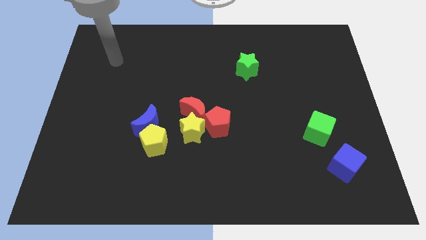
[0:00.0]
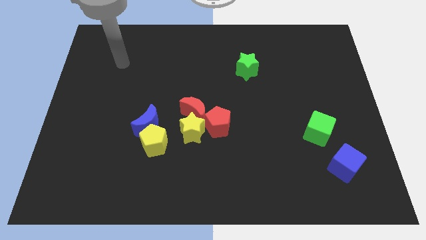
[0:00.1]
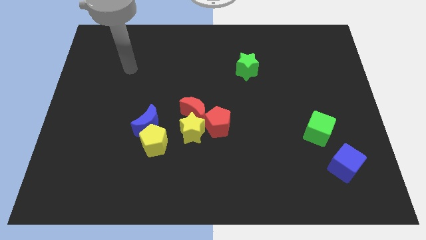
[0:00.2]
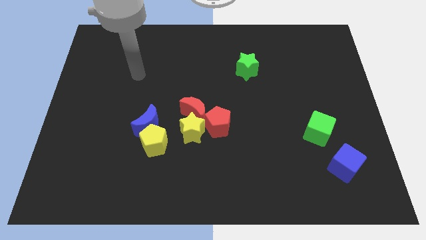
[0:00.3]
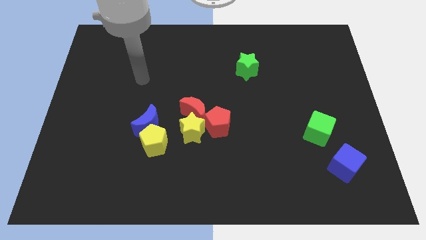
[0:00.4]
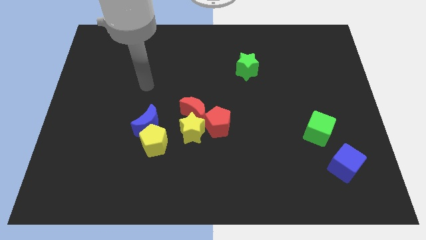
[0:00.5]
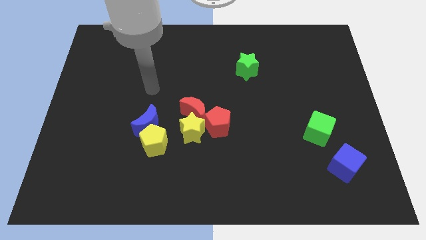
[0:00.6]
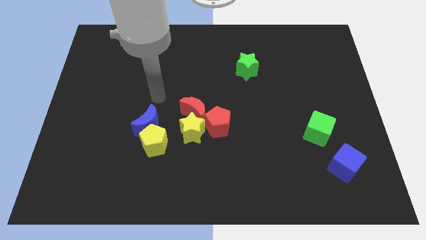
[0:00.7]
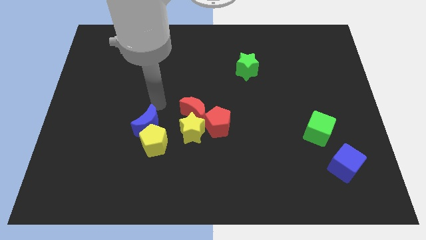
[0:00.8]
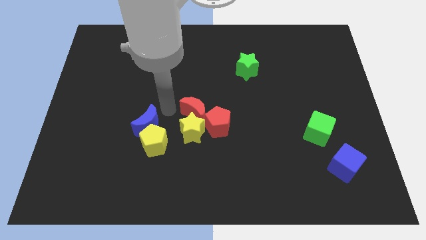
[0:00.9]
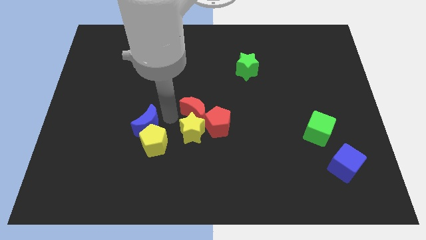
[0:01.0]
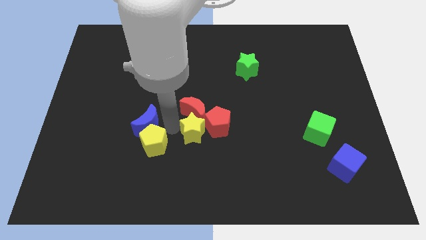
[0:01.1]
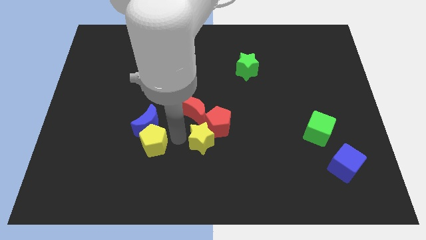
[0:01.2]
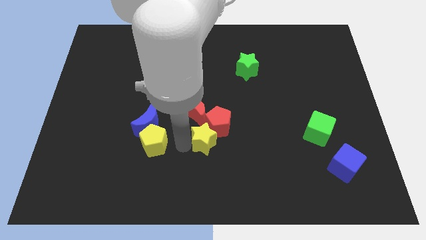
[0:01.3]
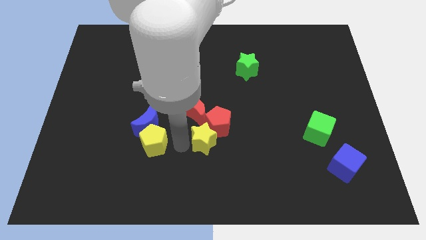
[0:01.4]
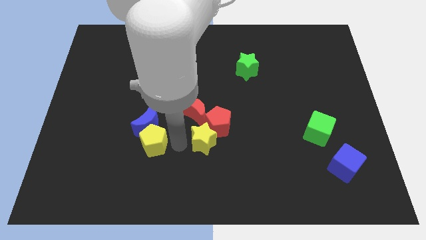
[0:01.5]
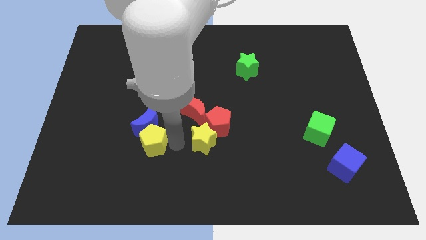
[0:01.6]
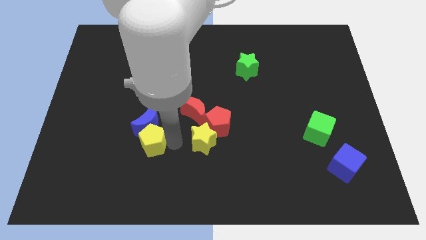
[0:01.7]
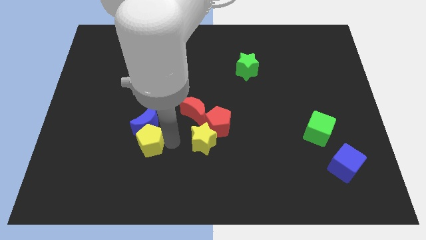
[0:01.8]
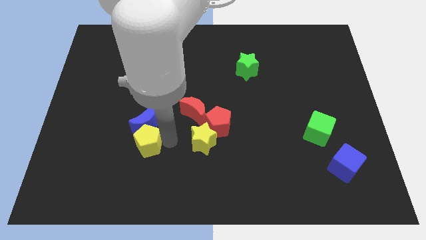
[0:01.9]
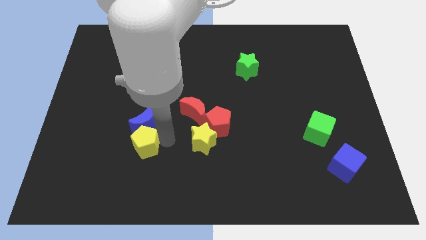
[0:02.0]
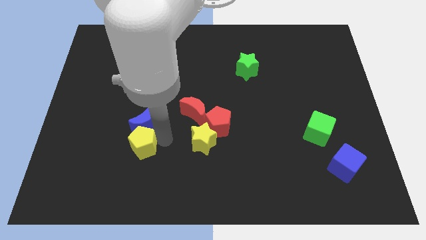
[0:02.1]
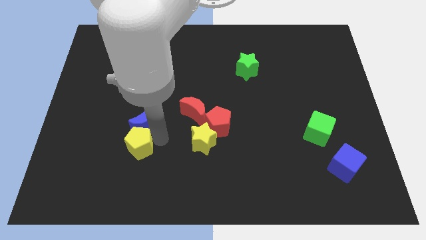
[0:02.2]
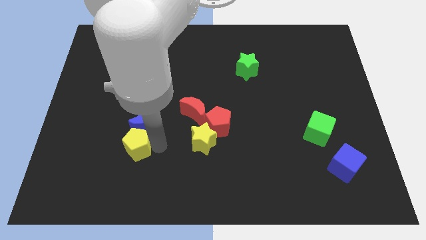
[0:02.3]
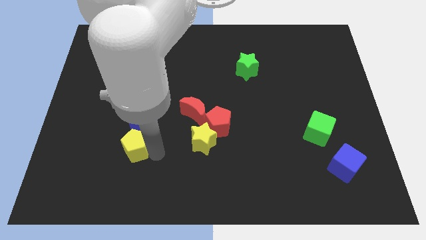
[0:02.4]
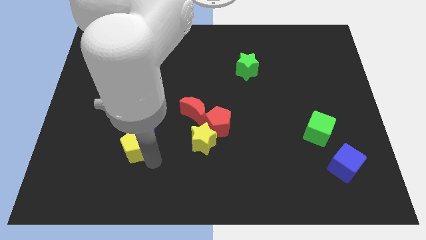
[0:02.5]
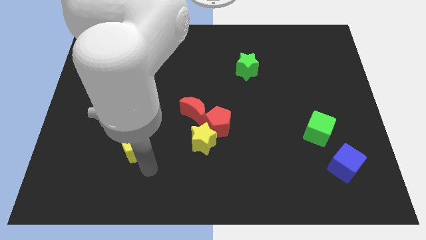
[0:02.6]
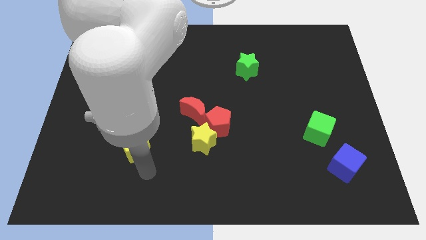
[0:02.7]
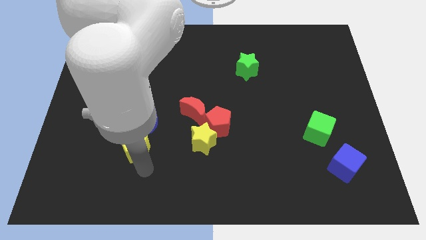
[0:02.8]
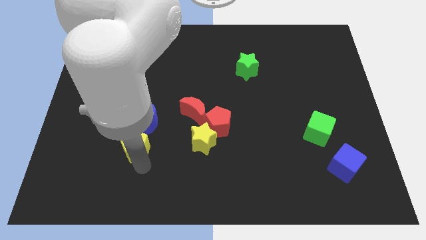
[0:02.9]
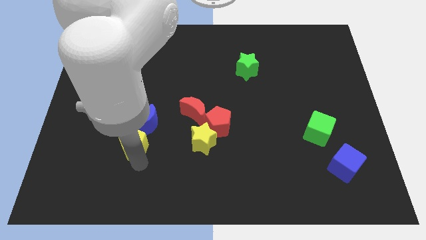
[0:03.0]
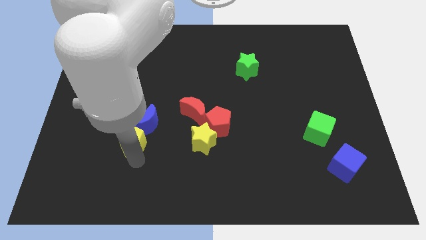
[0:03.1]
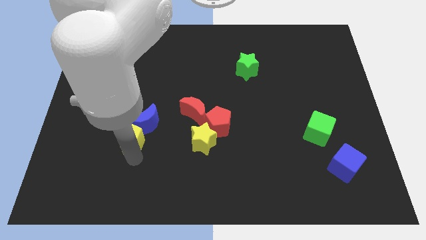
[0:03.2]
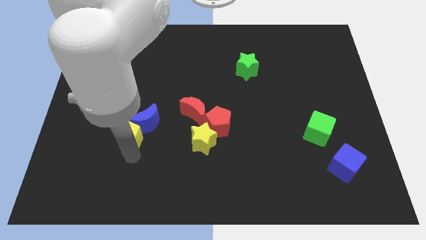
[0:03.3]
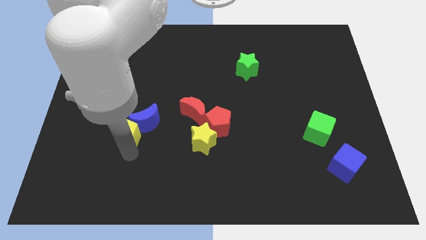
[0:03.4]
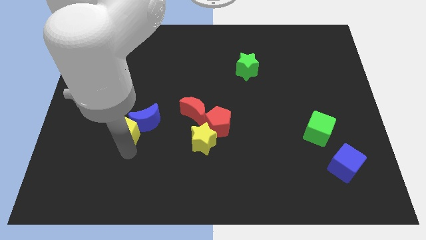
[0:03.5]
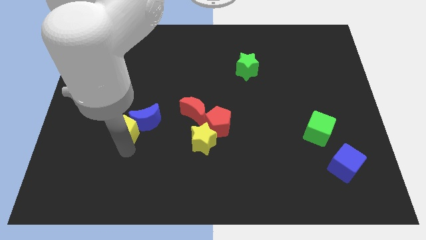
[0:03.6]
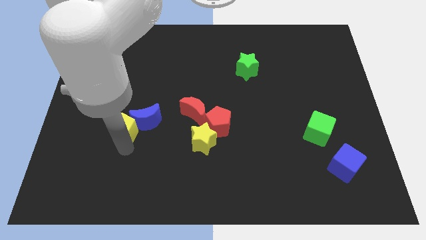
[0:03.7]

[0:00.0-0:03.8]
move the yellow pentagon up and to the left a little

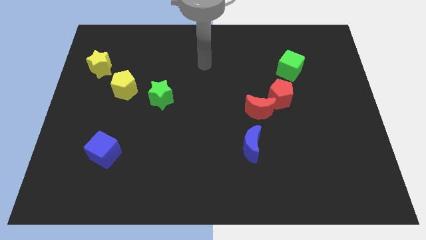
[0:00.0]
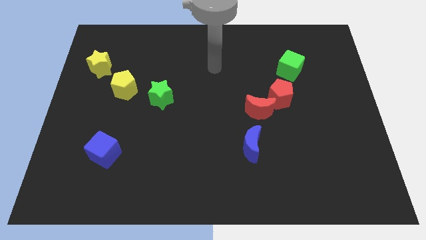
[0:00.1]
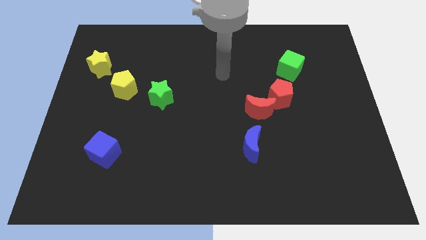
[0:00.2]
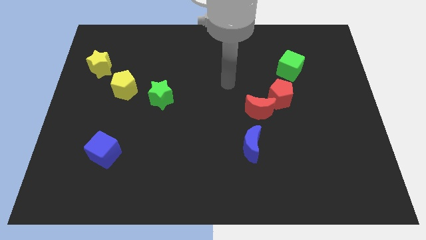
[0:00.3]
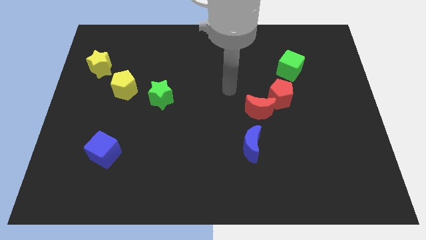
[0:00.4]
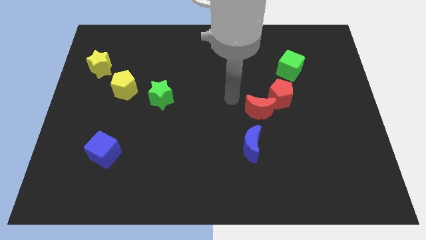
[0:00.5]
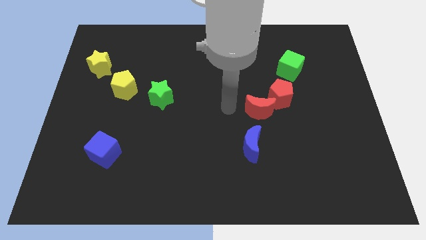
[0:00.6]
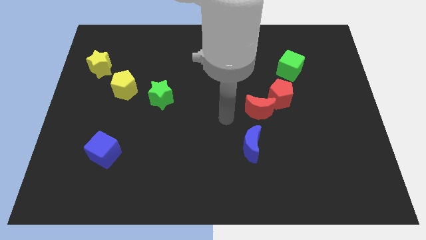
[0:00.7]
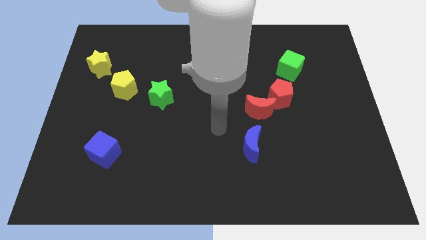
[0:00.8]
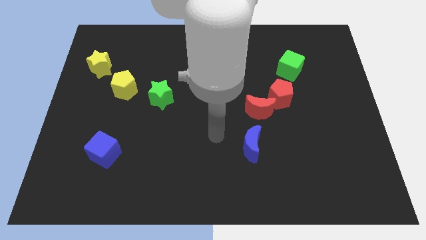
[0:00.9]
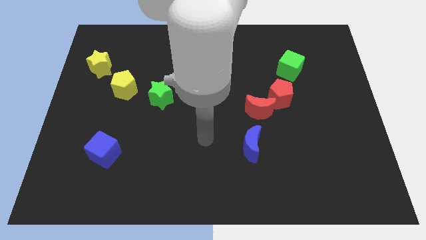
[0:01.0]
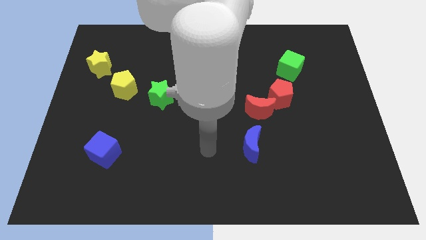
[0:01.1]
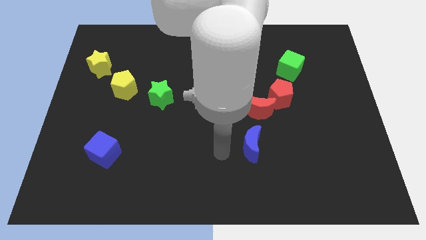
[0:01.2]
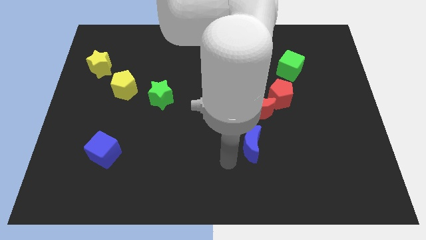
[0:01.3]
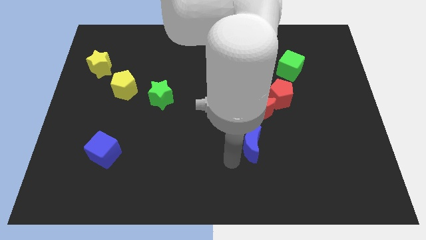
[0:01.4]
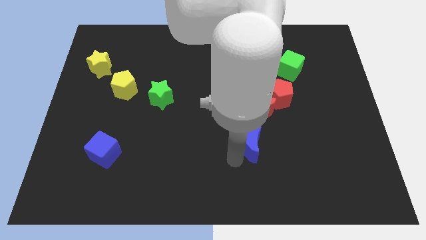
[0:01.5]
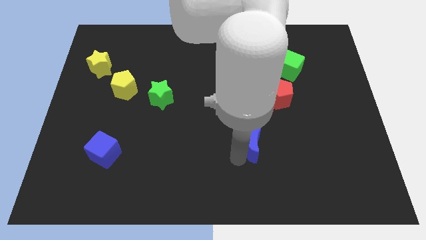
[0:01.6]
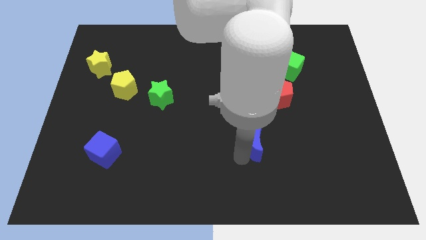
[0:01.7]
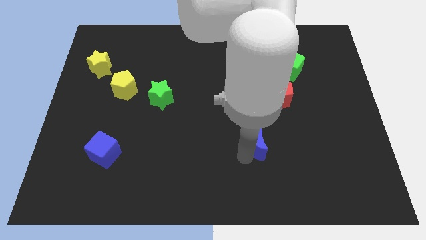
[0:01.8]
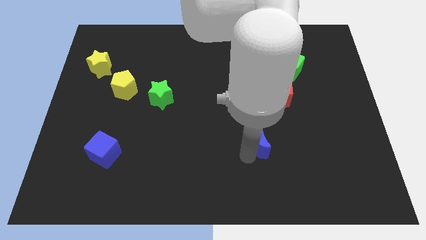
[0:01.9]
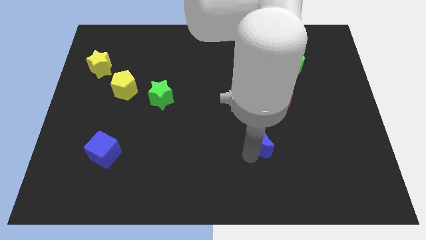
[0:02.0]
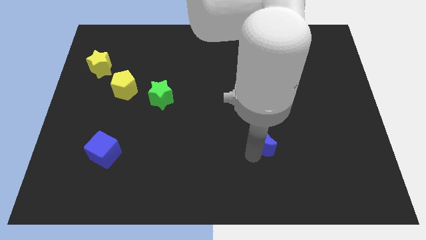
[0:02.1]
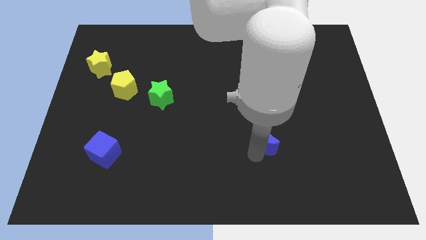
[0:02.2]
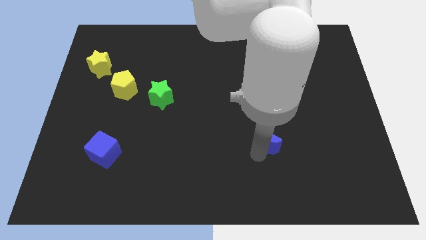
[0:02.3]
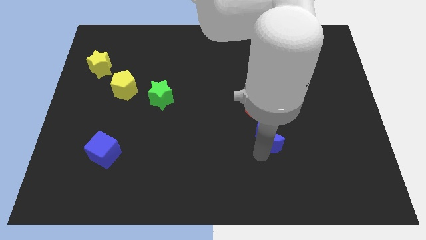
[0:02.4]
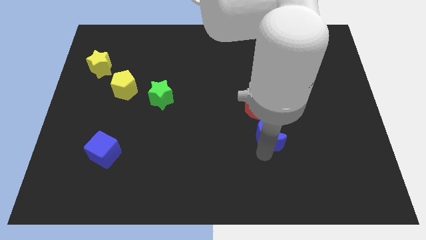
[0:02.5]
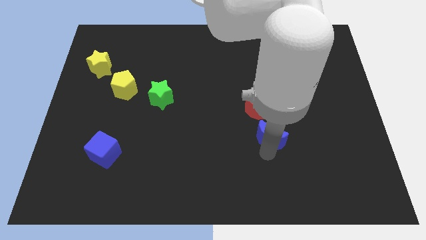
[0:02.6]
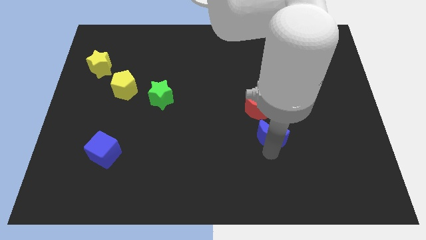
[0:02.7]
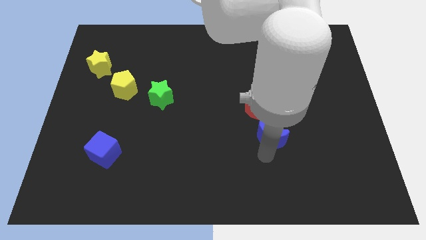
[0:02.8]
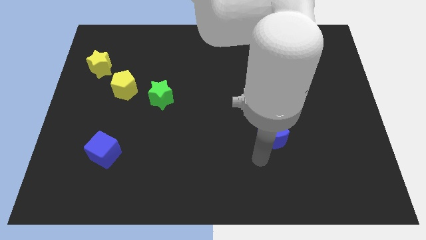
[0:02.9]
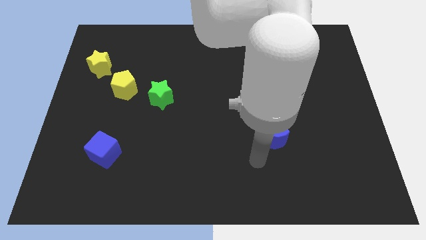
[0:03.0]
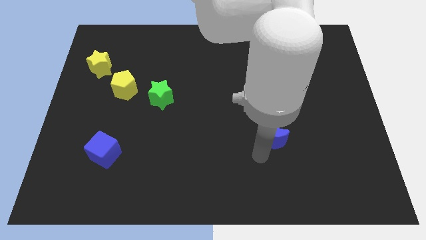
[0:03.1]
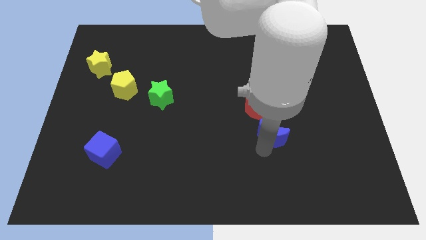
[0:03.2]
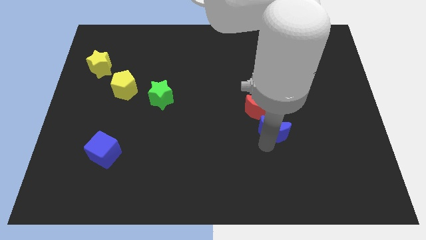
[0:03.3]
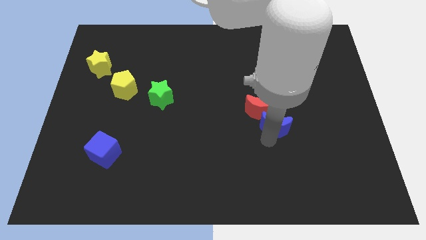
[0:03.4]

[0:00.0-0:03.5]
move the blue moon slightly up and then to the right

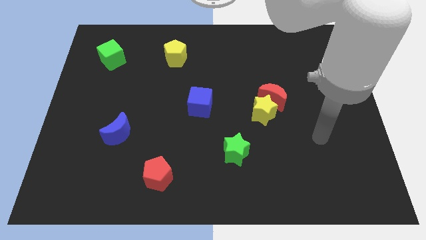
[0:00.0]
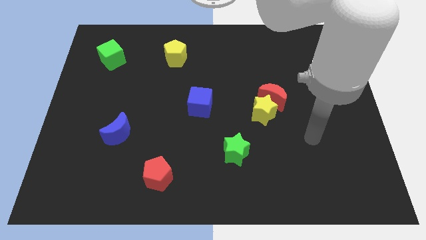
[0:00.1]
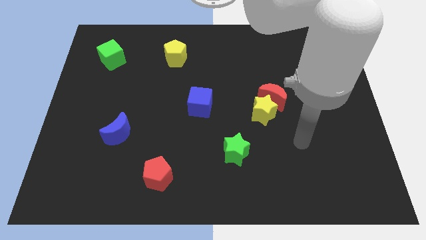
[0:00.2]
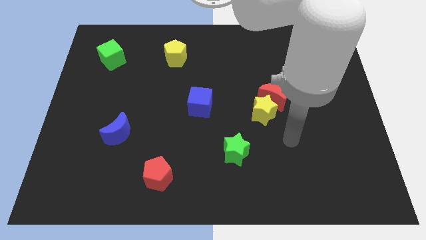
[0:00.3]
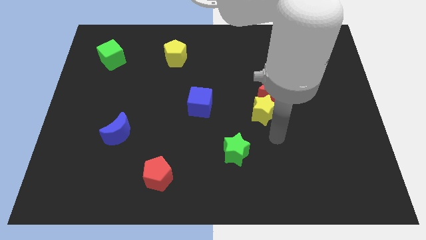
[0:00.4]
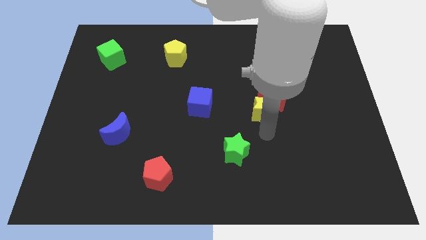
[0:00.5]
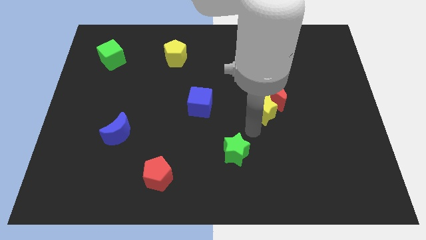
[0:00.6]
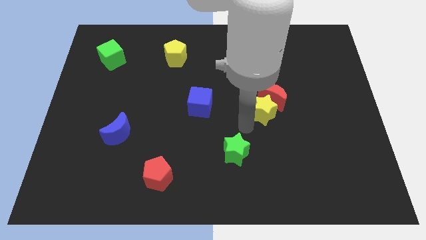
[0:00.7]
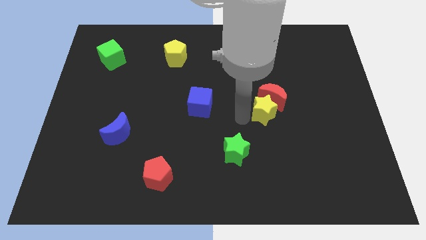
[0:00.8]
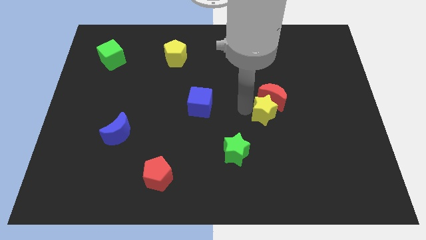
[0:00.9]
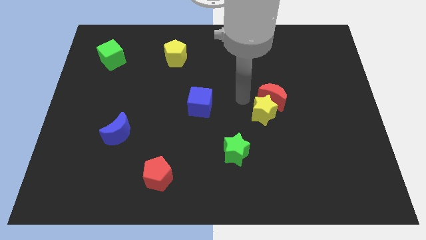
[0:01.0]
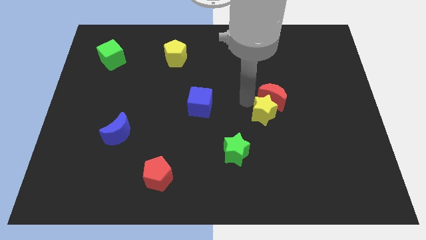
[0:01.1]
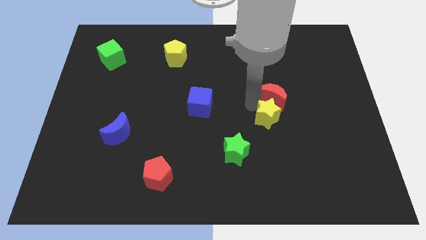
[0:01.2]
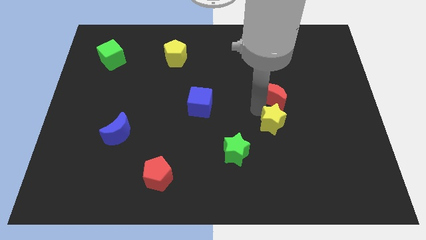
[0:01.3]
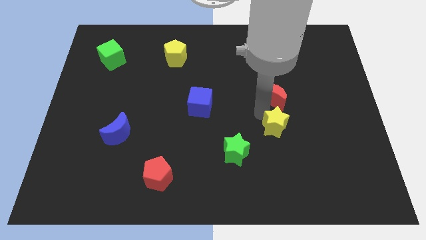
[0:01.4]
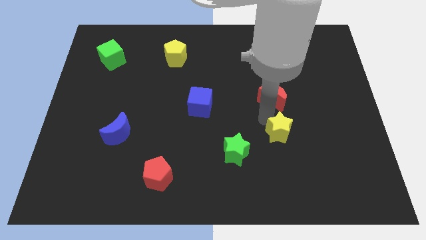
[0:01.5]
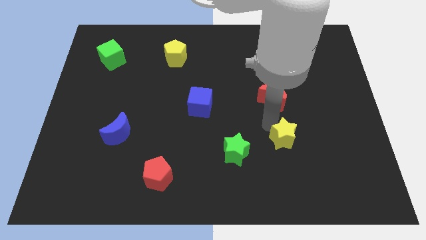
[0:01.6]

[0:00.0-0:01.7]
slightly slide the yellow star downwards and then right
